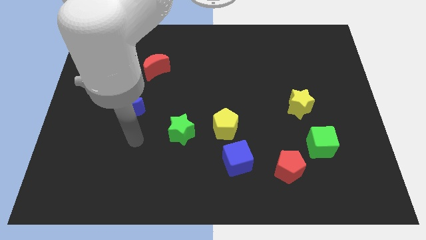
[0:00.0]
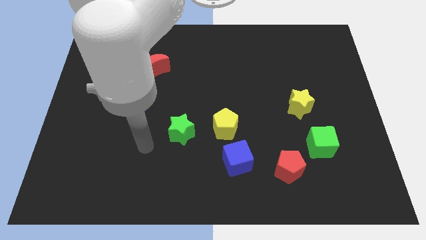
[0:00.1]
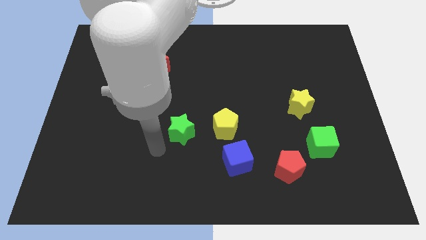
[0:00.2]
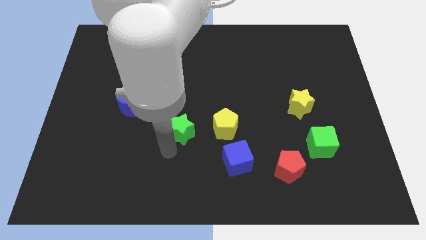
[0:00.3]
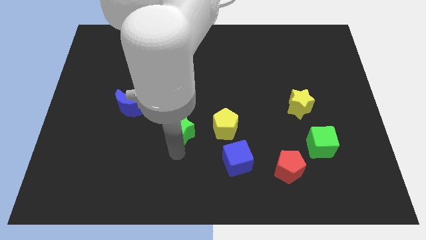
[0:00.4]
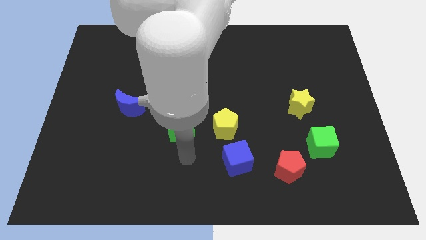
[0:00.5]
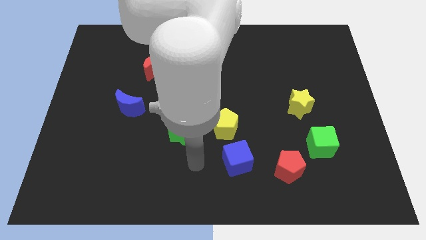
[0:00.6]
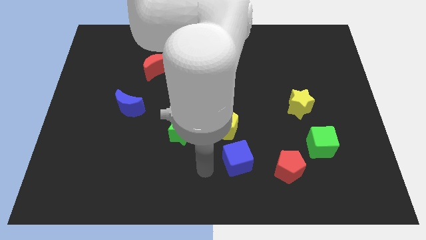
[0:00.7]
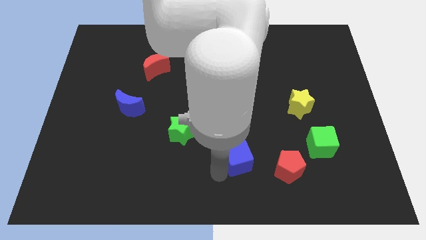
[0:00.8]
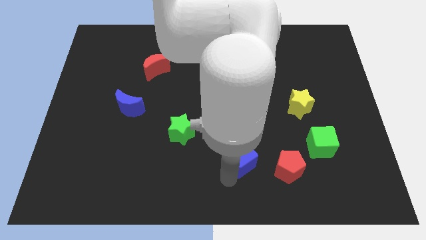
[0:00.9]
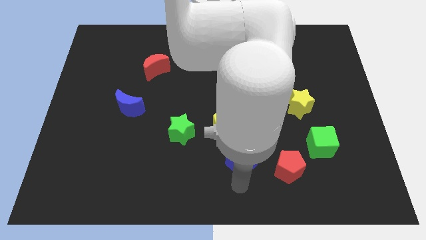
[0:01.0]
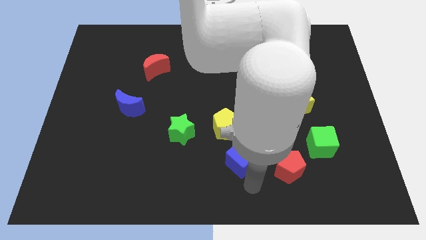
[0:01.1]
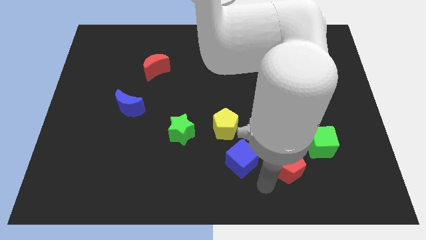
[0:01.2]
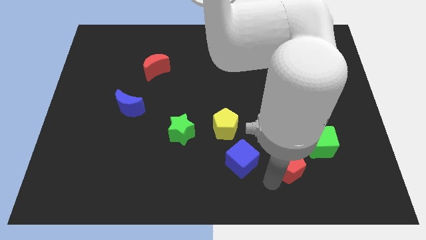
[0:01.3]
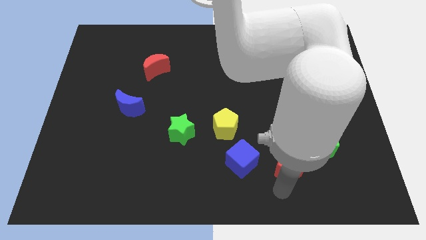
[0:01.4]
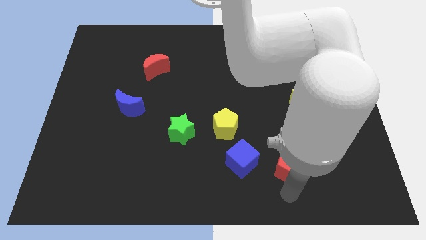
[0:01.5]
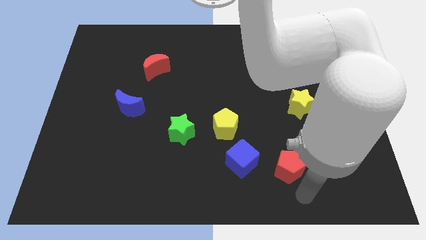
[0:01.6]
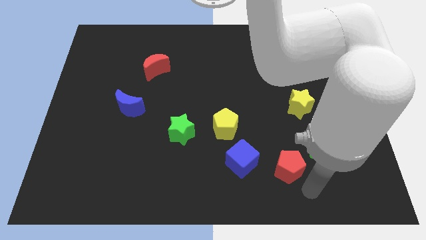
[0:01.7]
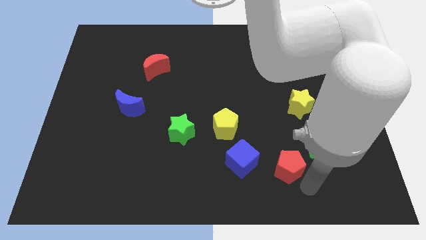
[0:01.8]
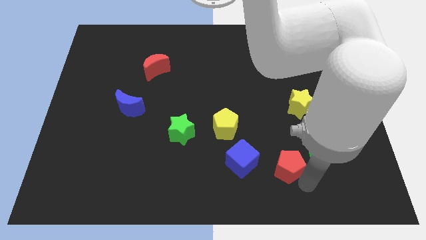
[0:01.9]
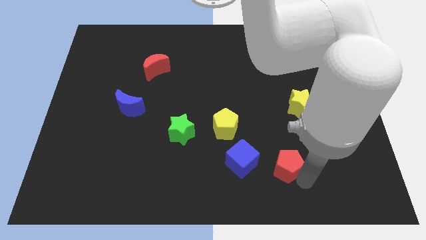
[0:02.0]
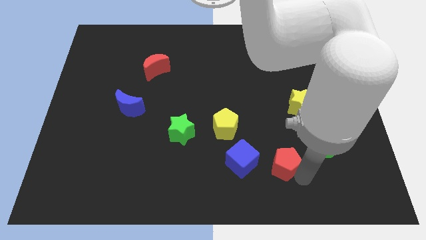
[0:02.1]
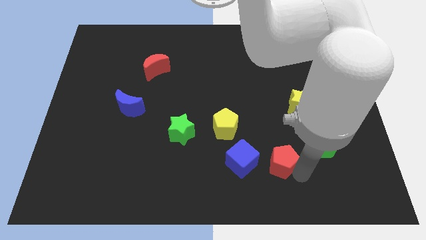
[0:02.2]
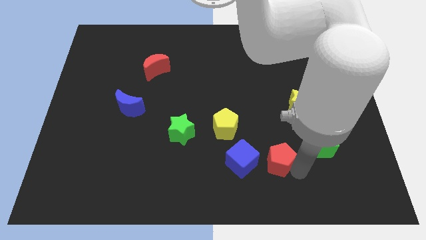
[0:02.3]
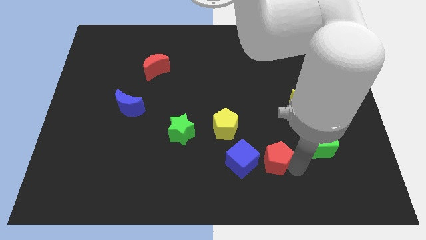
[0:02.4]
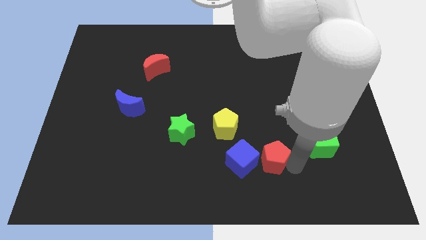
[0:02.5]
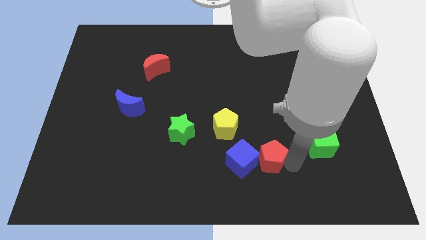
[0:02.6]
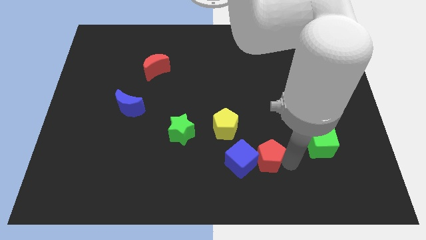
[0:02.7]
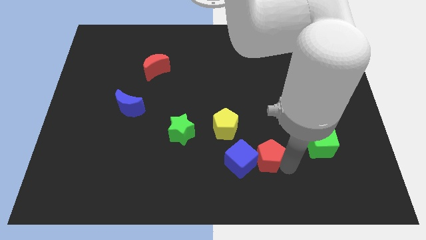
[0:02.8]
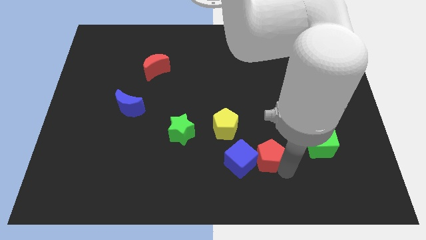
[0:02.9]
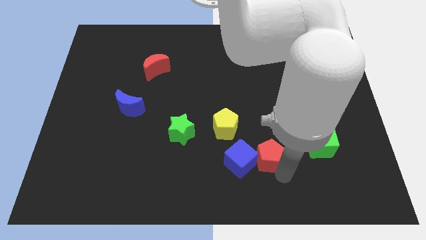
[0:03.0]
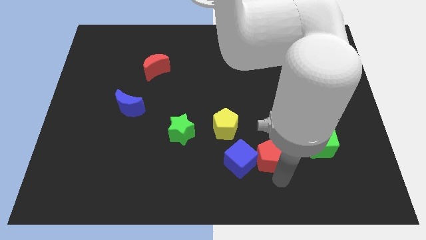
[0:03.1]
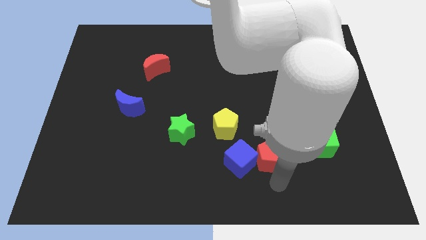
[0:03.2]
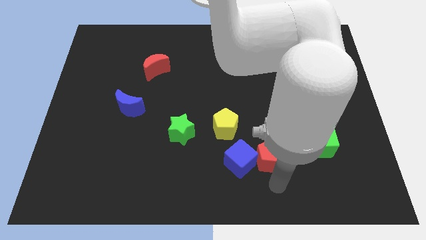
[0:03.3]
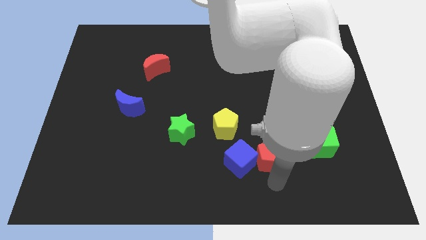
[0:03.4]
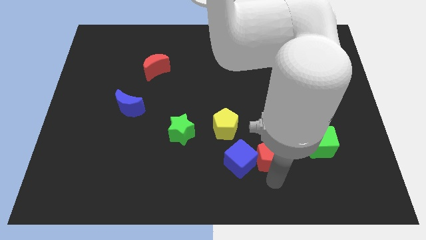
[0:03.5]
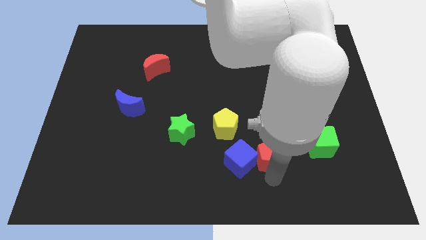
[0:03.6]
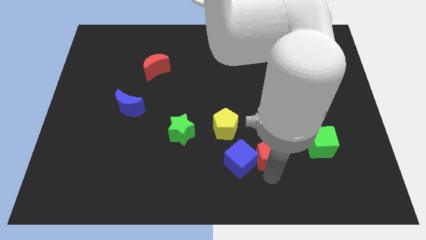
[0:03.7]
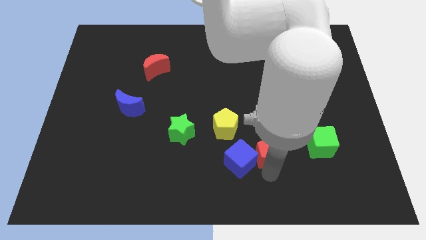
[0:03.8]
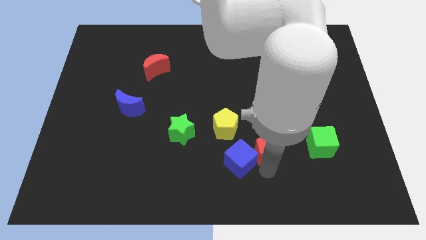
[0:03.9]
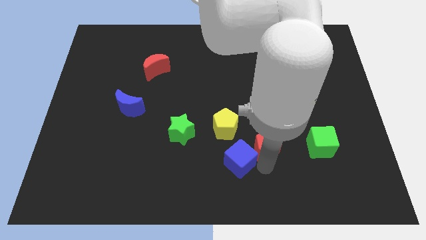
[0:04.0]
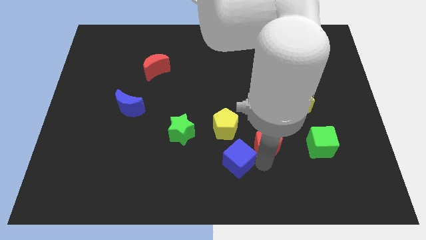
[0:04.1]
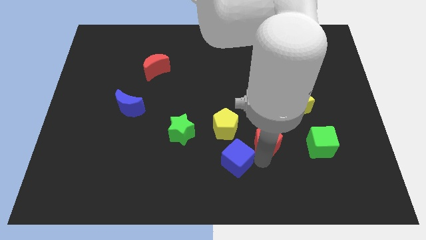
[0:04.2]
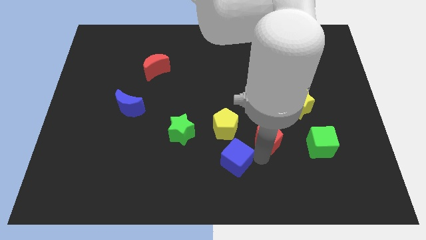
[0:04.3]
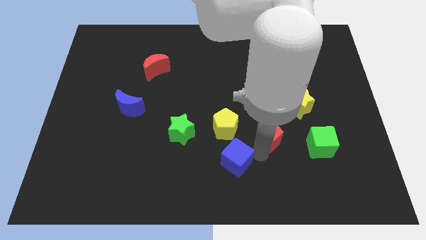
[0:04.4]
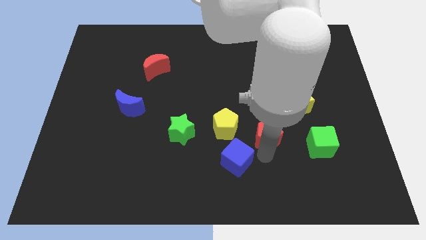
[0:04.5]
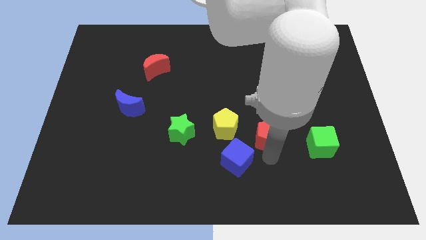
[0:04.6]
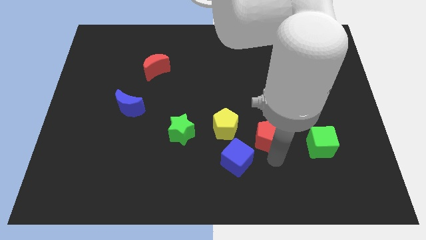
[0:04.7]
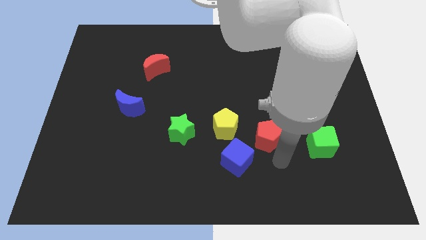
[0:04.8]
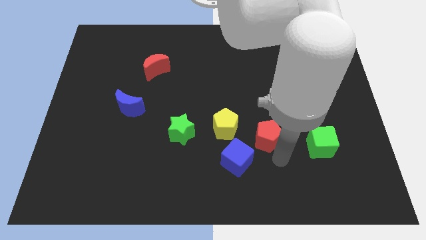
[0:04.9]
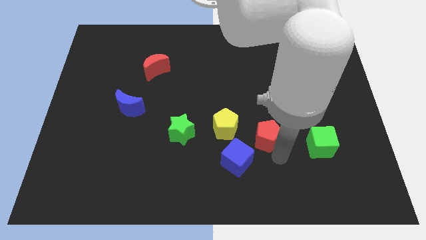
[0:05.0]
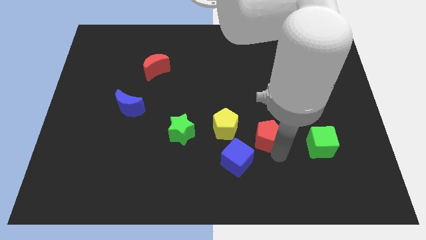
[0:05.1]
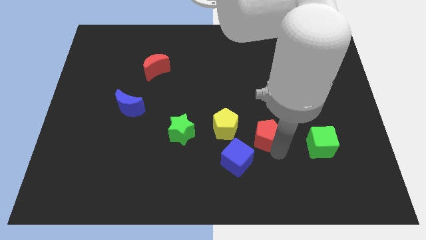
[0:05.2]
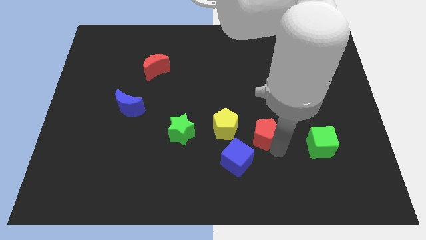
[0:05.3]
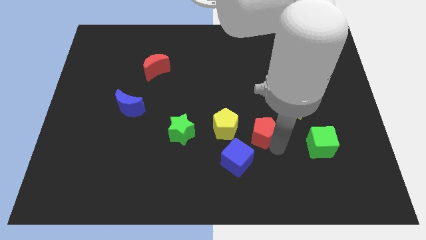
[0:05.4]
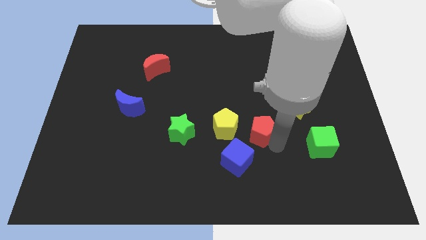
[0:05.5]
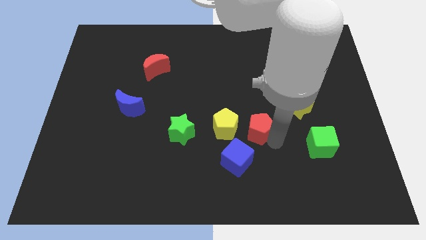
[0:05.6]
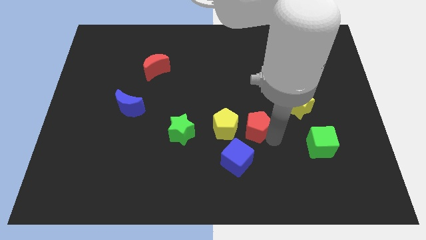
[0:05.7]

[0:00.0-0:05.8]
move the red pentagon to the middle

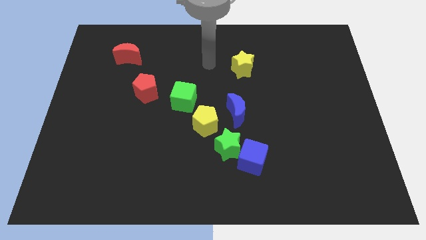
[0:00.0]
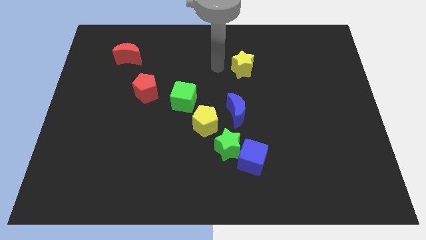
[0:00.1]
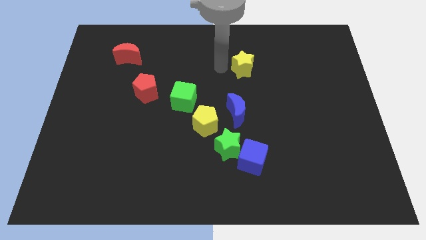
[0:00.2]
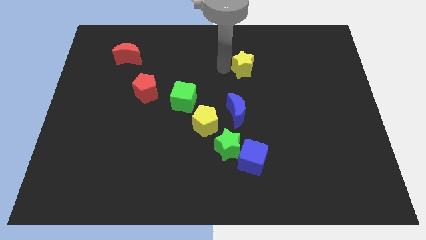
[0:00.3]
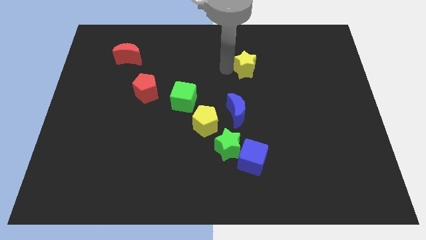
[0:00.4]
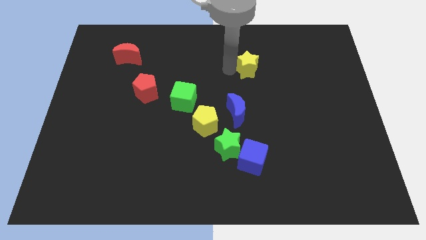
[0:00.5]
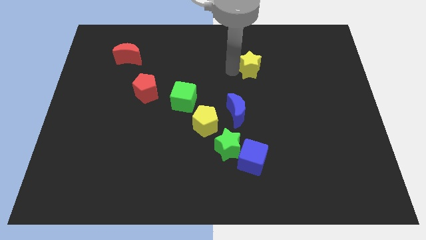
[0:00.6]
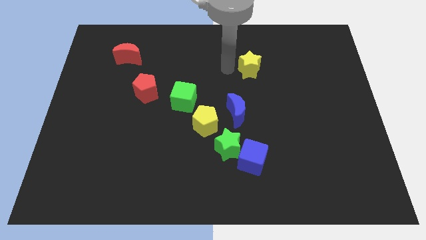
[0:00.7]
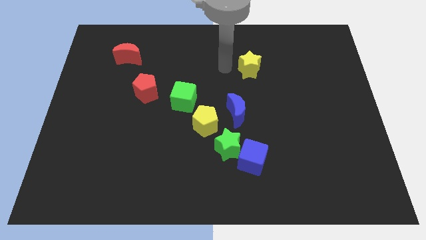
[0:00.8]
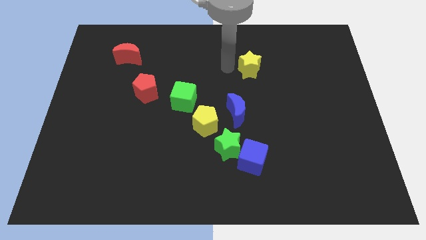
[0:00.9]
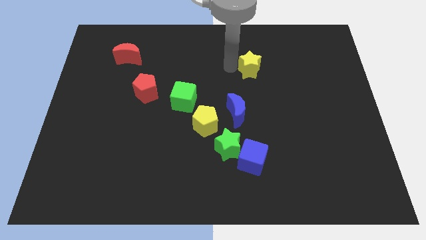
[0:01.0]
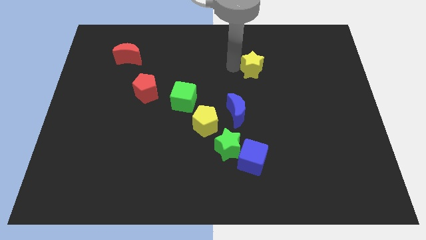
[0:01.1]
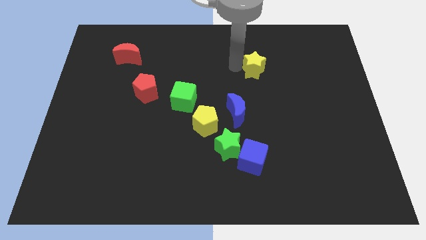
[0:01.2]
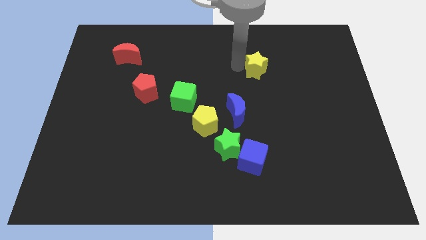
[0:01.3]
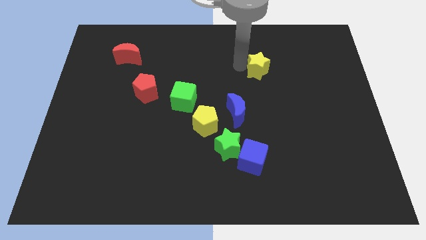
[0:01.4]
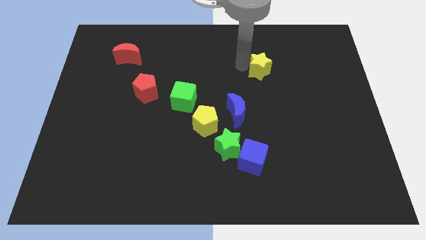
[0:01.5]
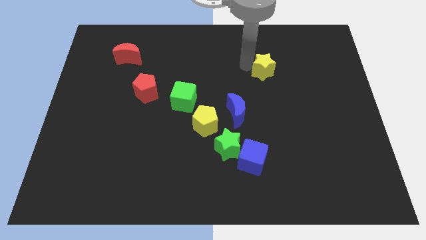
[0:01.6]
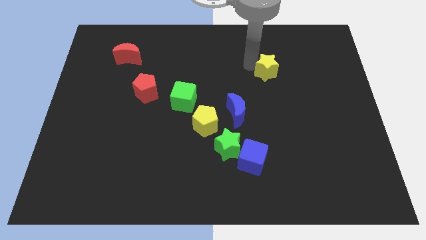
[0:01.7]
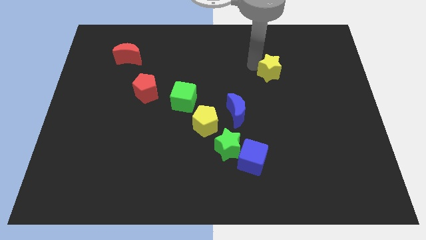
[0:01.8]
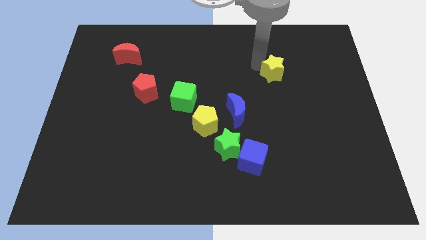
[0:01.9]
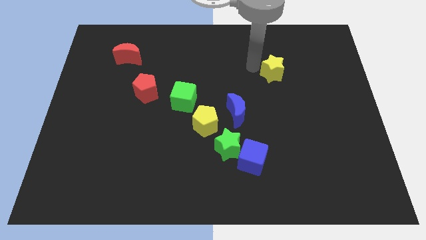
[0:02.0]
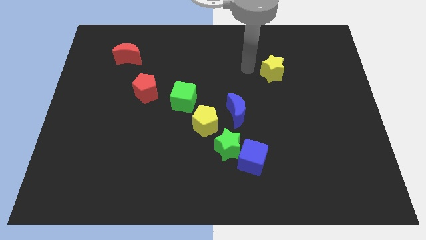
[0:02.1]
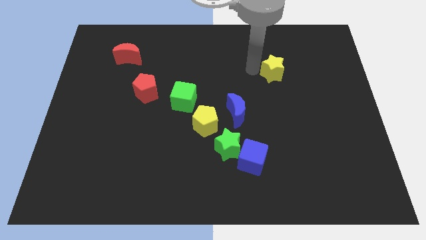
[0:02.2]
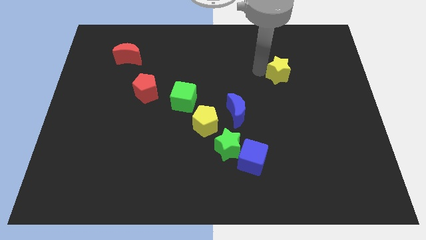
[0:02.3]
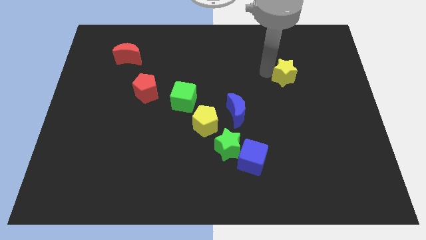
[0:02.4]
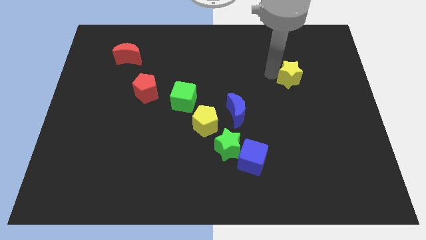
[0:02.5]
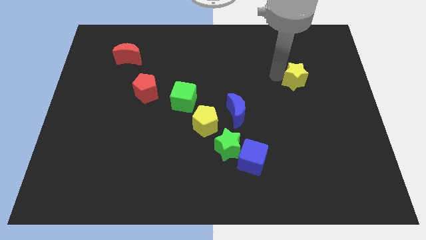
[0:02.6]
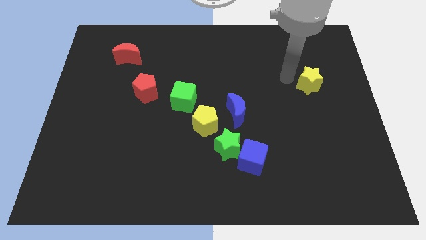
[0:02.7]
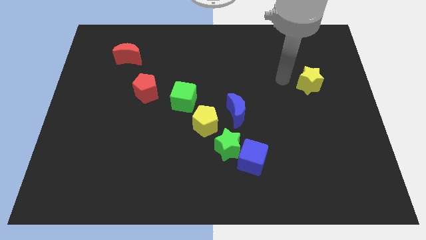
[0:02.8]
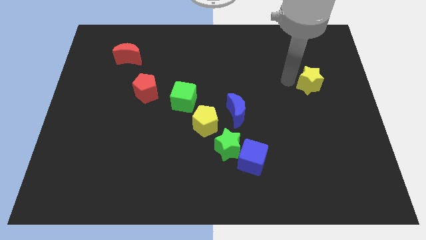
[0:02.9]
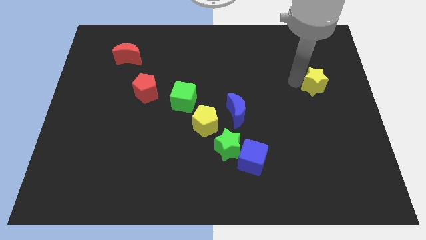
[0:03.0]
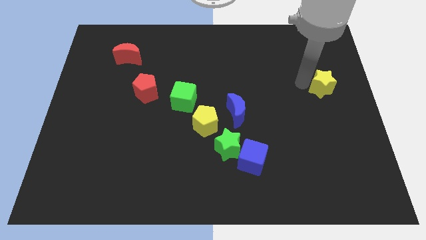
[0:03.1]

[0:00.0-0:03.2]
push the yellow star to the right side
